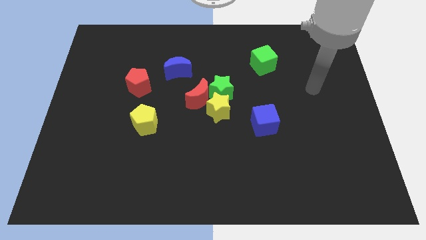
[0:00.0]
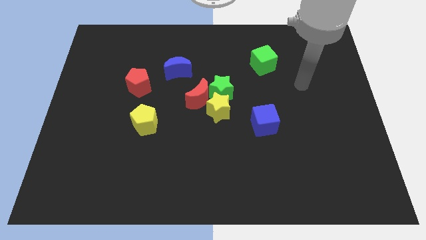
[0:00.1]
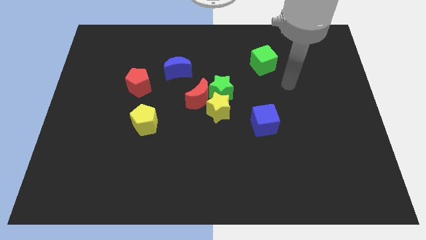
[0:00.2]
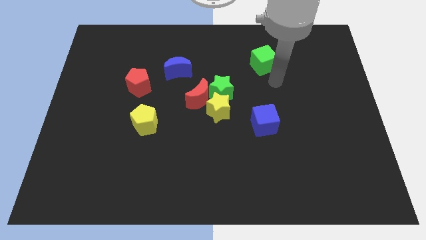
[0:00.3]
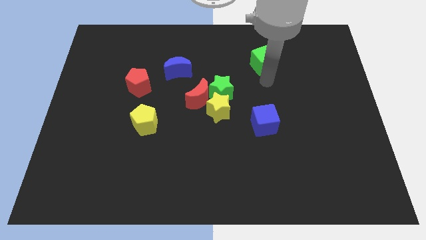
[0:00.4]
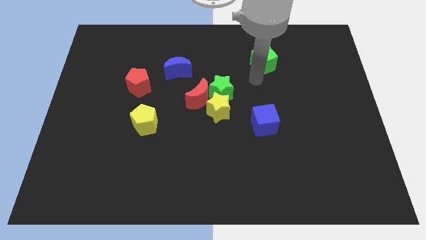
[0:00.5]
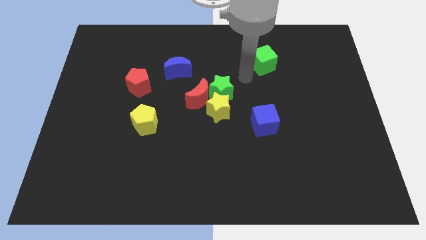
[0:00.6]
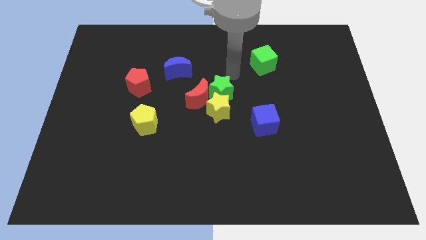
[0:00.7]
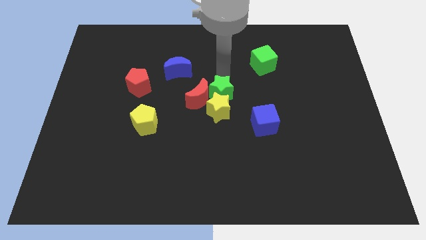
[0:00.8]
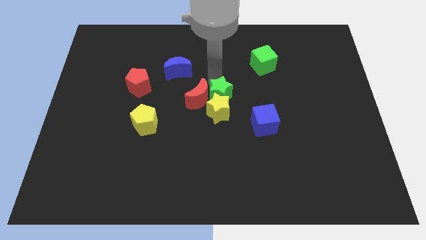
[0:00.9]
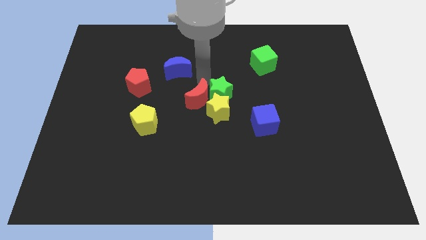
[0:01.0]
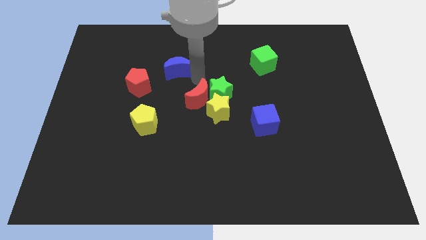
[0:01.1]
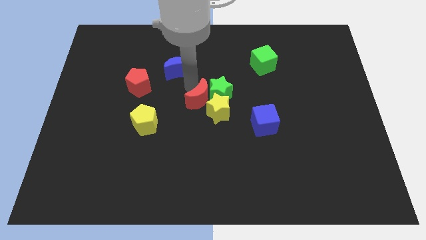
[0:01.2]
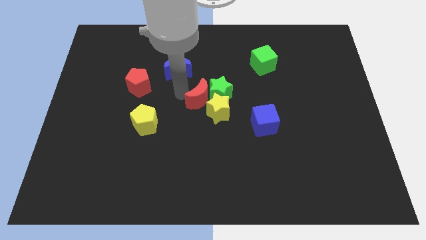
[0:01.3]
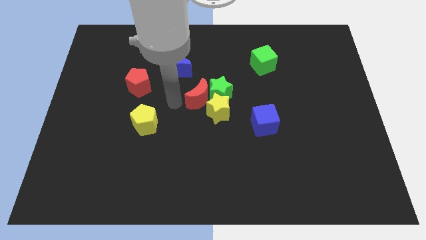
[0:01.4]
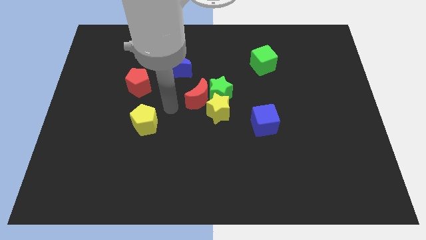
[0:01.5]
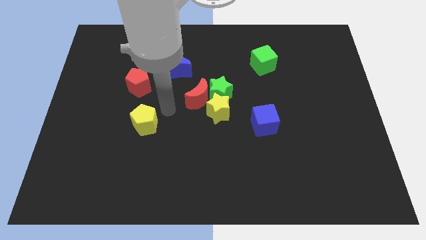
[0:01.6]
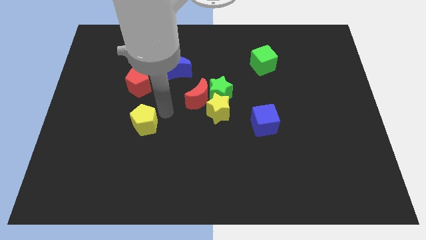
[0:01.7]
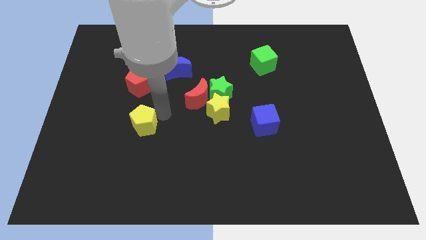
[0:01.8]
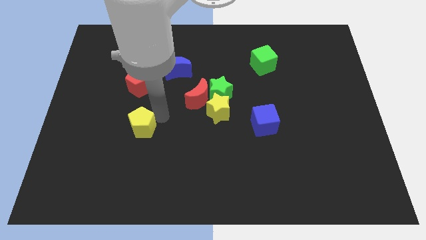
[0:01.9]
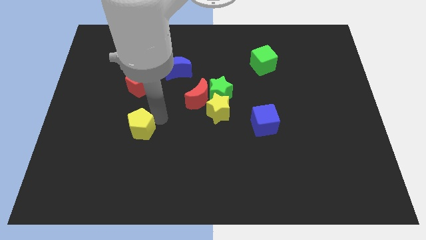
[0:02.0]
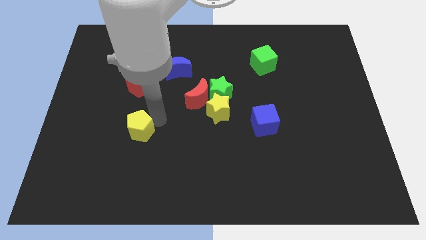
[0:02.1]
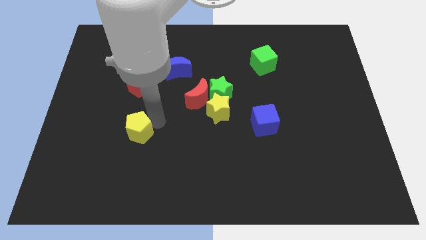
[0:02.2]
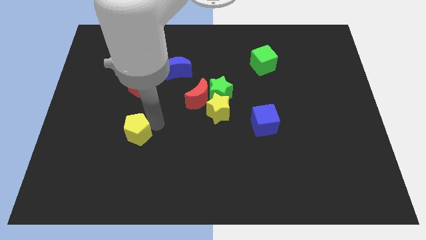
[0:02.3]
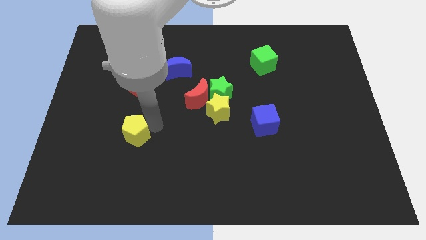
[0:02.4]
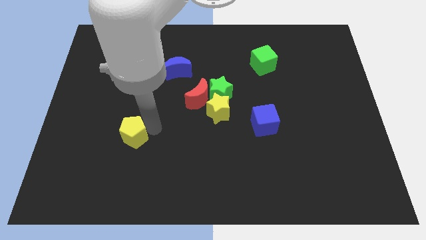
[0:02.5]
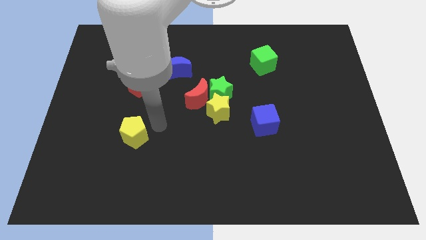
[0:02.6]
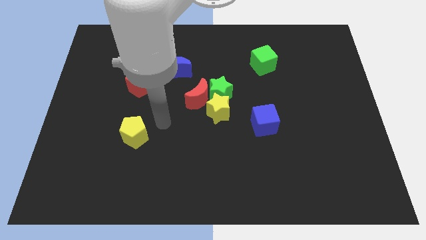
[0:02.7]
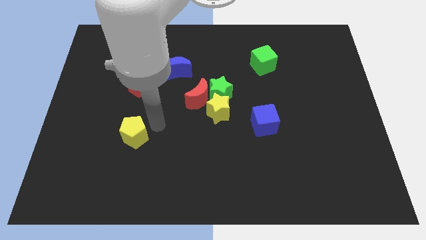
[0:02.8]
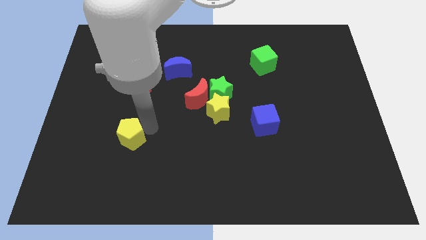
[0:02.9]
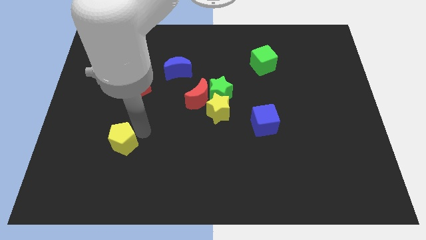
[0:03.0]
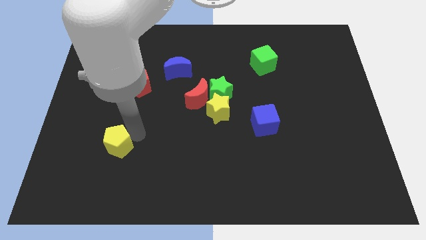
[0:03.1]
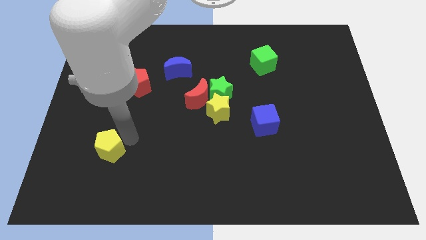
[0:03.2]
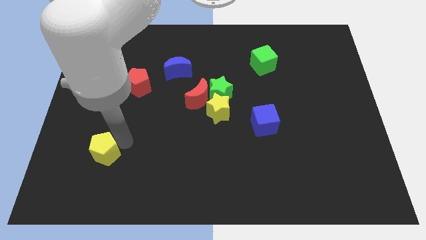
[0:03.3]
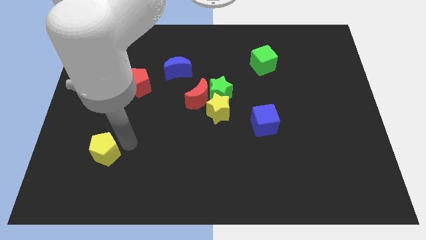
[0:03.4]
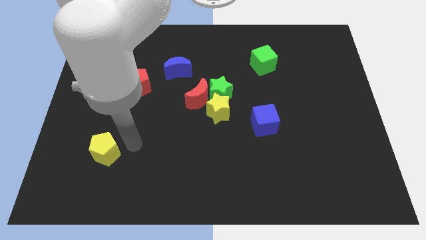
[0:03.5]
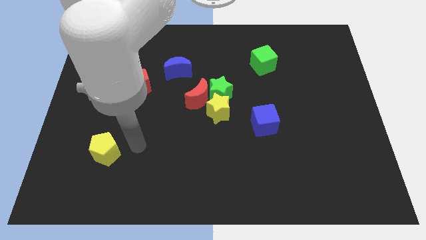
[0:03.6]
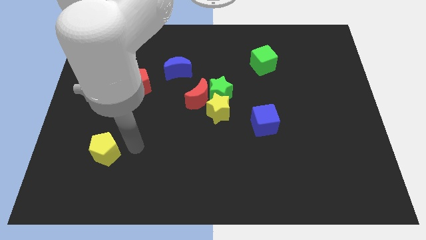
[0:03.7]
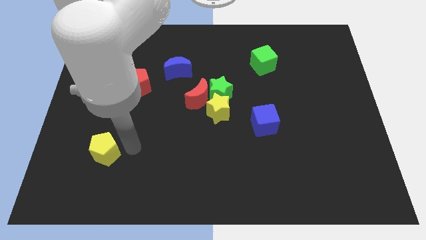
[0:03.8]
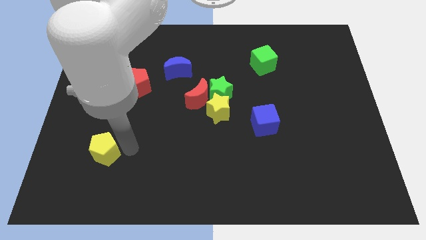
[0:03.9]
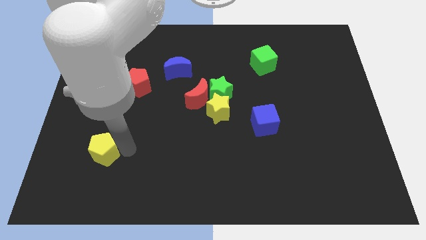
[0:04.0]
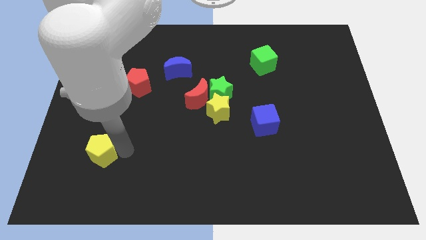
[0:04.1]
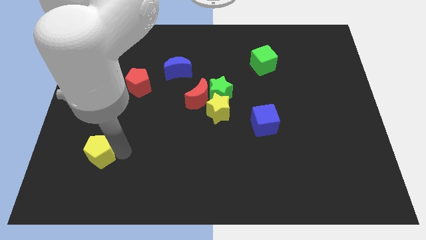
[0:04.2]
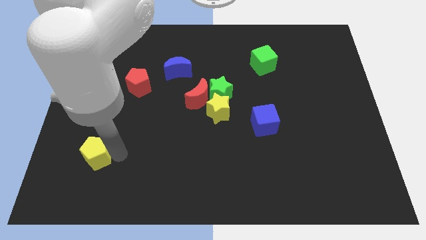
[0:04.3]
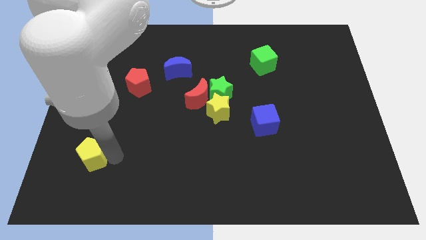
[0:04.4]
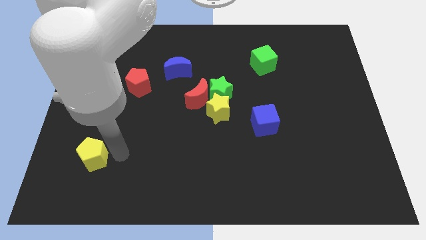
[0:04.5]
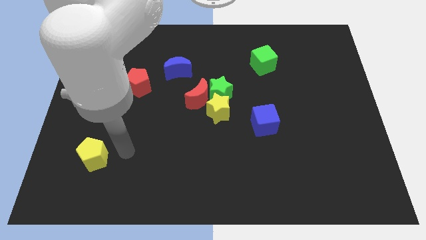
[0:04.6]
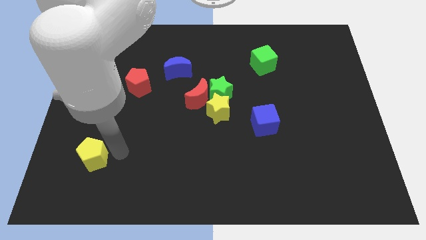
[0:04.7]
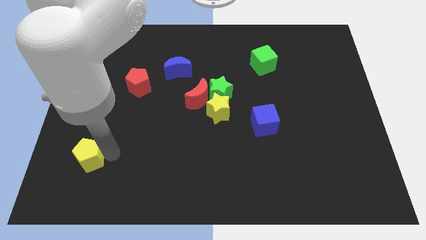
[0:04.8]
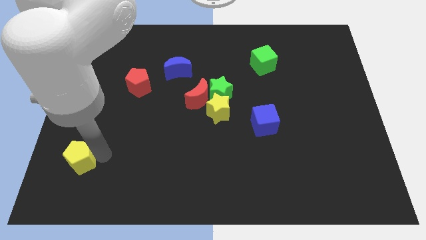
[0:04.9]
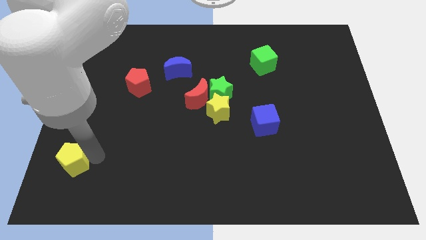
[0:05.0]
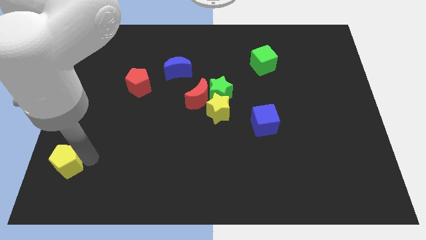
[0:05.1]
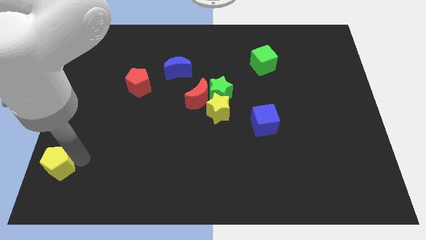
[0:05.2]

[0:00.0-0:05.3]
move the yellow pentagon to the bottom left corner

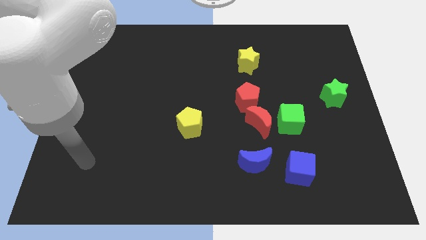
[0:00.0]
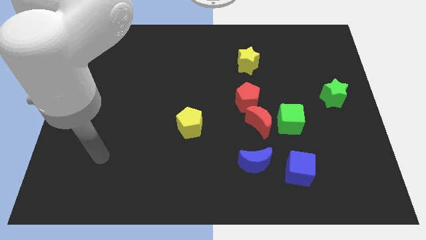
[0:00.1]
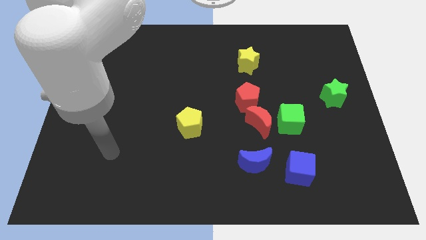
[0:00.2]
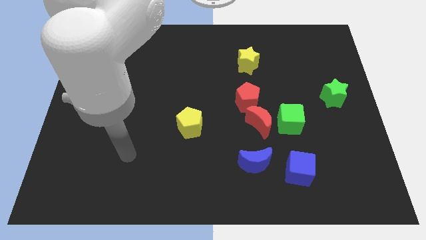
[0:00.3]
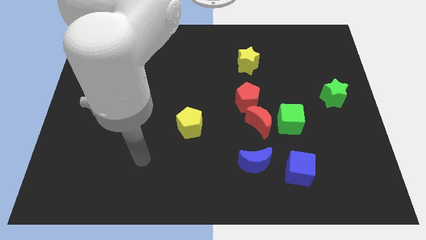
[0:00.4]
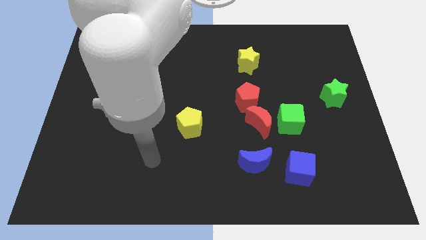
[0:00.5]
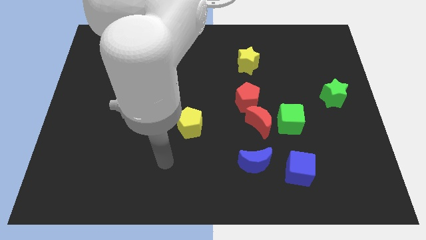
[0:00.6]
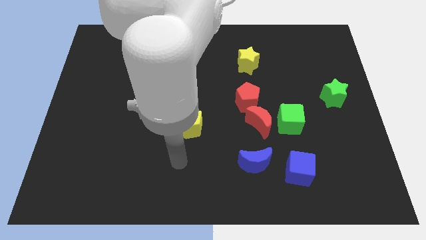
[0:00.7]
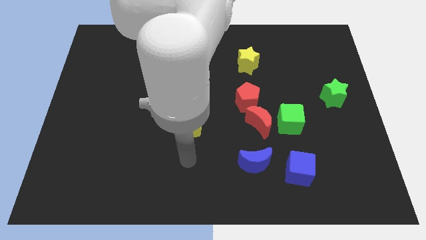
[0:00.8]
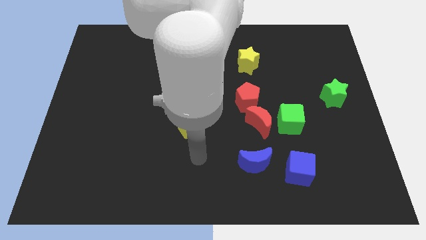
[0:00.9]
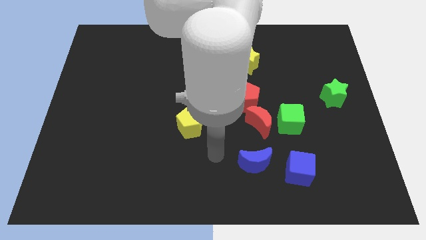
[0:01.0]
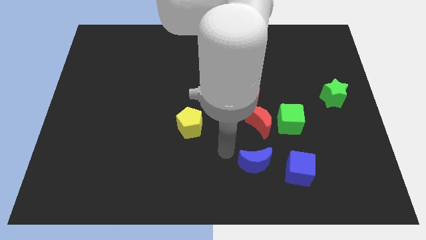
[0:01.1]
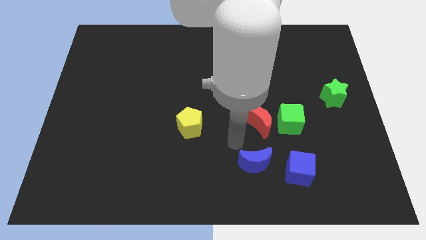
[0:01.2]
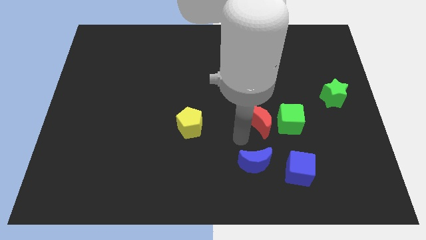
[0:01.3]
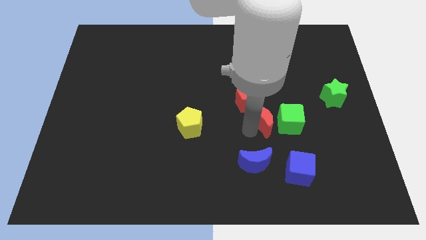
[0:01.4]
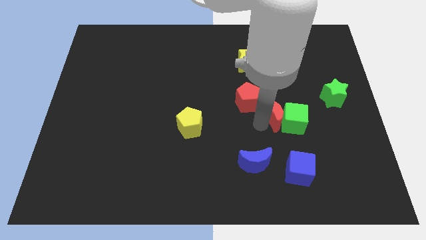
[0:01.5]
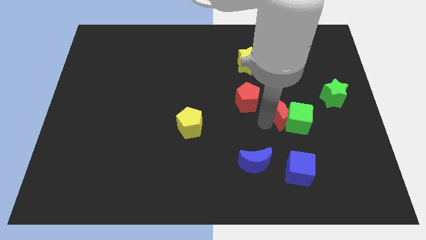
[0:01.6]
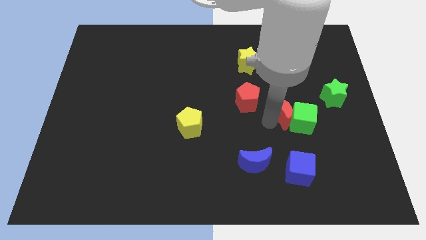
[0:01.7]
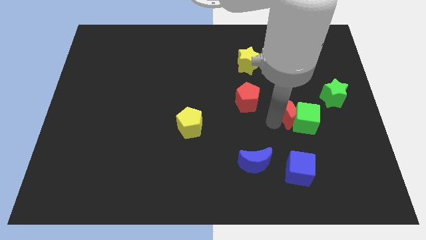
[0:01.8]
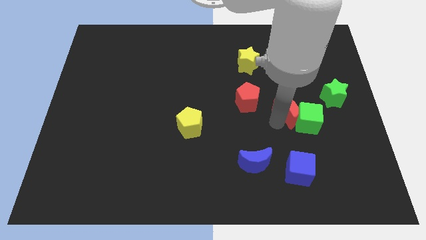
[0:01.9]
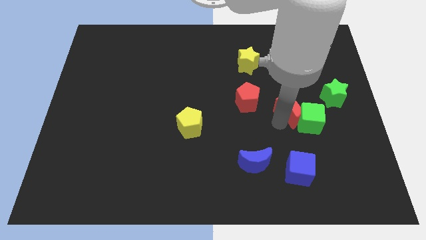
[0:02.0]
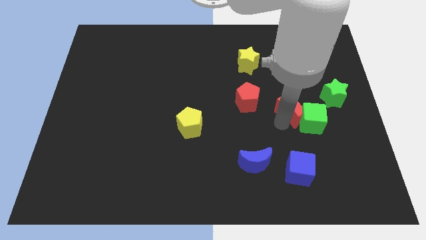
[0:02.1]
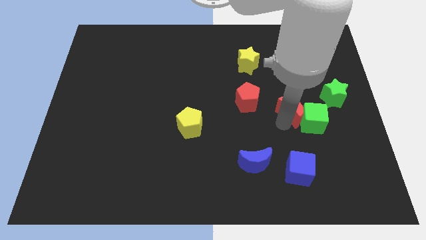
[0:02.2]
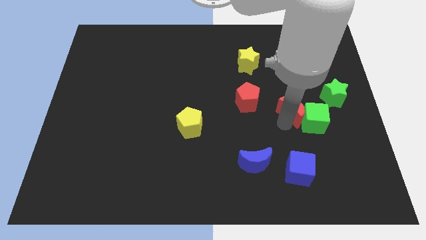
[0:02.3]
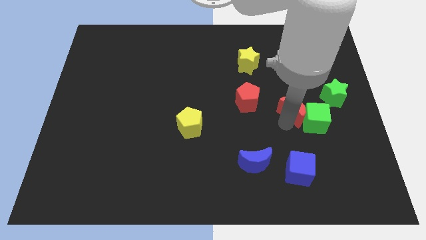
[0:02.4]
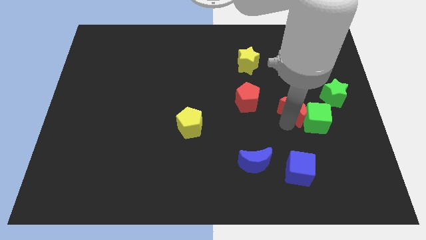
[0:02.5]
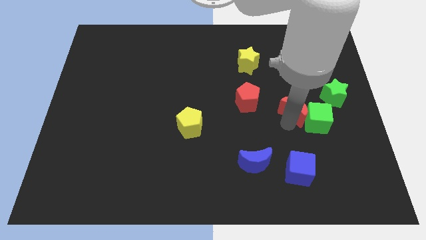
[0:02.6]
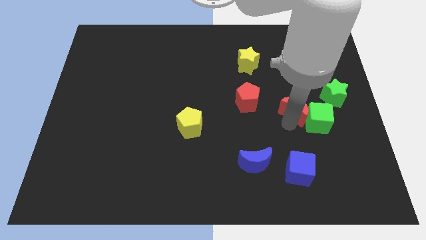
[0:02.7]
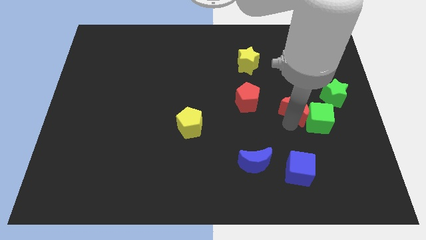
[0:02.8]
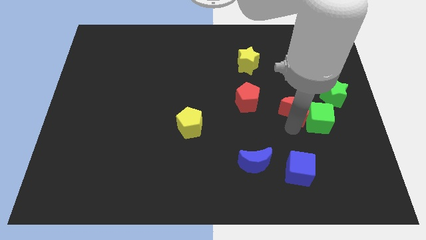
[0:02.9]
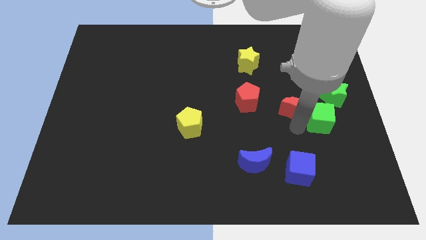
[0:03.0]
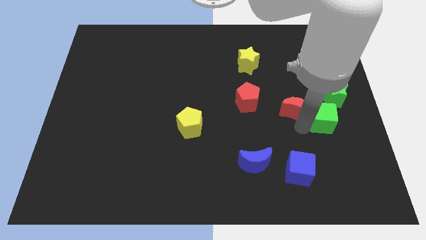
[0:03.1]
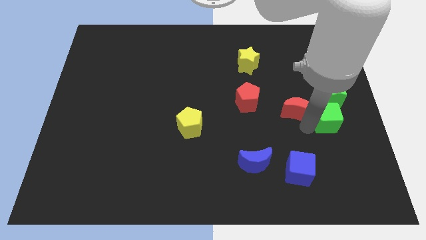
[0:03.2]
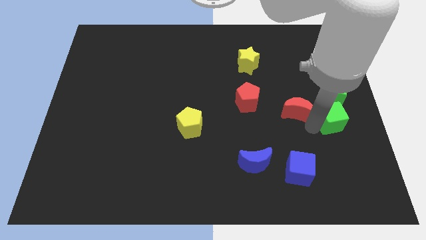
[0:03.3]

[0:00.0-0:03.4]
push the green cube to the center right
